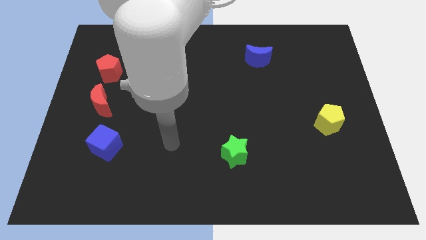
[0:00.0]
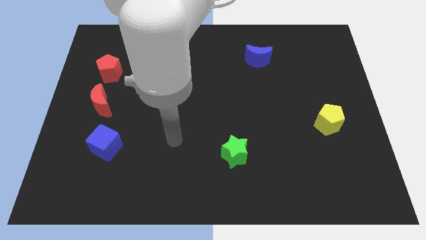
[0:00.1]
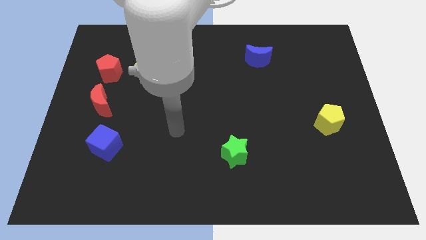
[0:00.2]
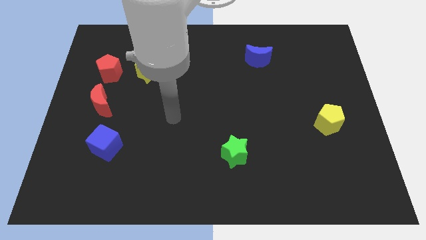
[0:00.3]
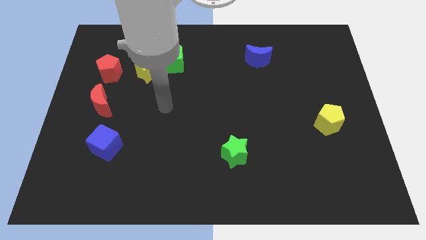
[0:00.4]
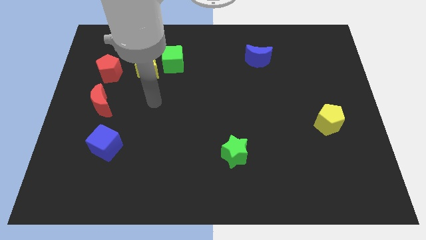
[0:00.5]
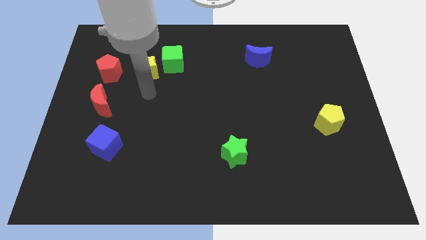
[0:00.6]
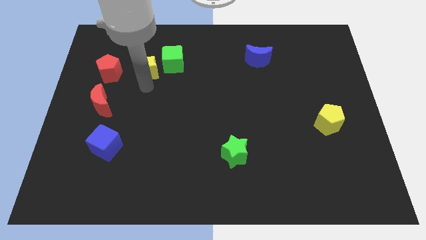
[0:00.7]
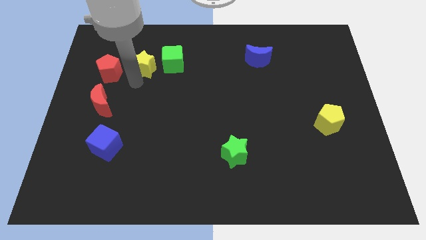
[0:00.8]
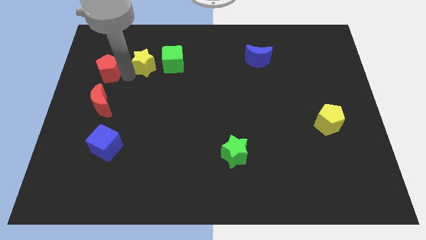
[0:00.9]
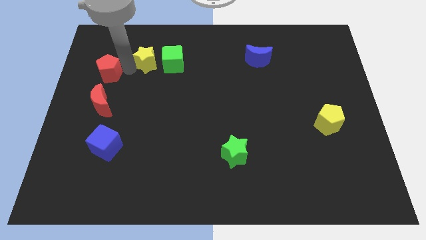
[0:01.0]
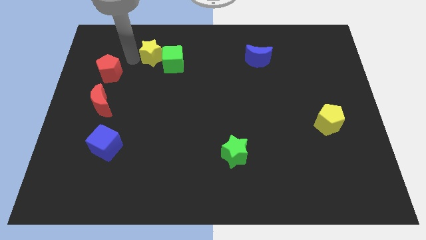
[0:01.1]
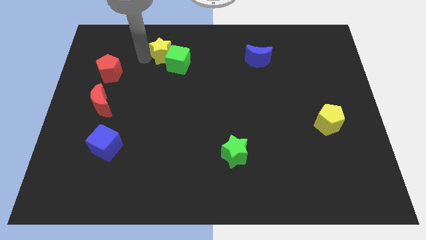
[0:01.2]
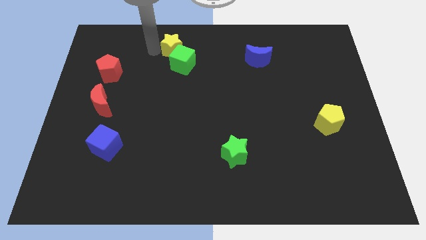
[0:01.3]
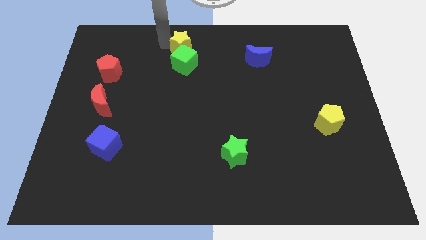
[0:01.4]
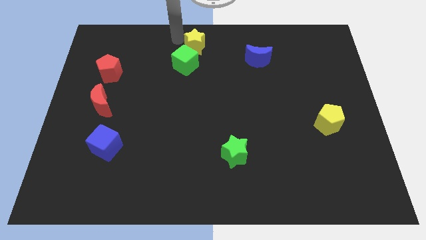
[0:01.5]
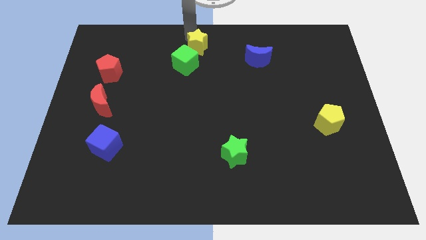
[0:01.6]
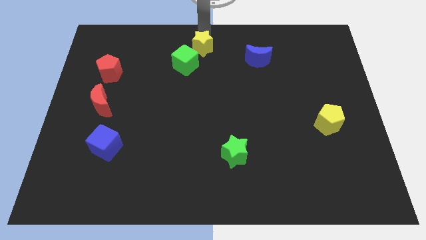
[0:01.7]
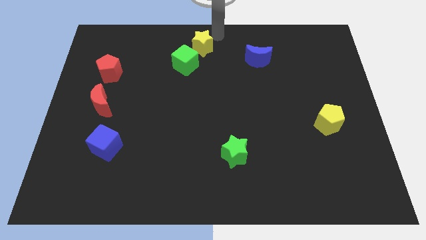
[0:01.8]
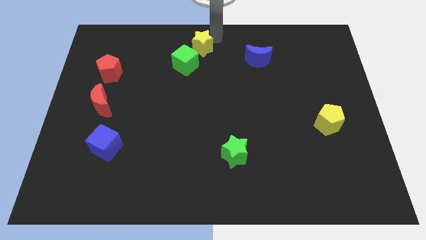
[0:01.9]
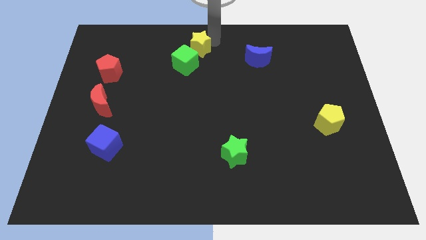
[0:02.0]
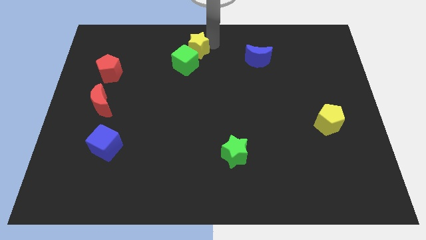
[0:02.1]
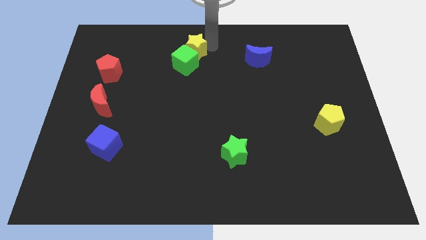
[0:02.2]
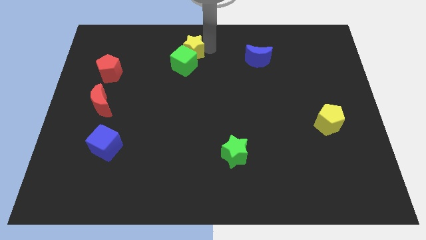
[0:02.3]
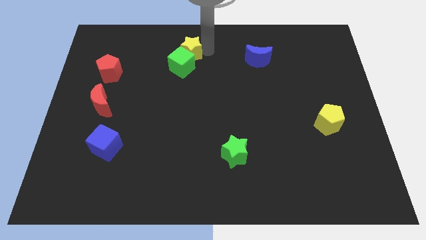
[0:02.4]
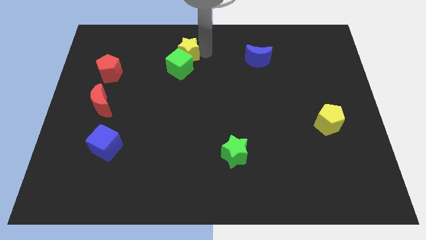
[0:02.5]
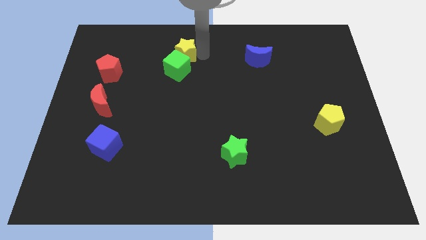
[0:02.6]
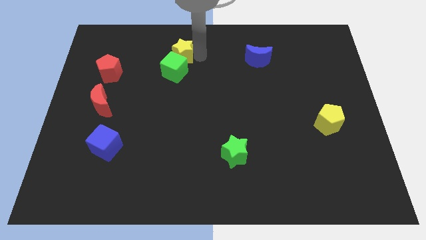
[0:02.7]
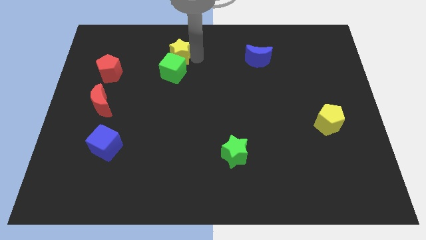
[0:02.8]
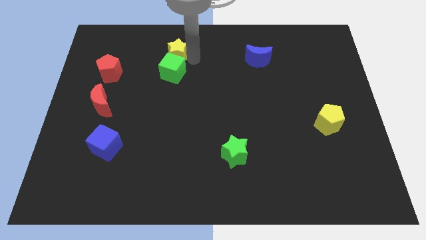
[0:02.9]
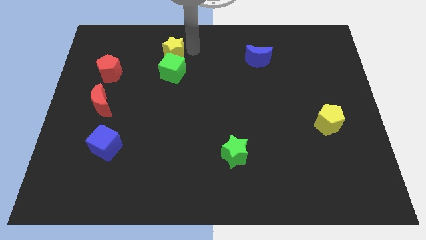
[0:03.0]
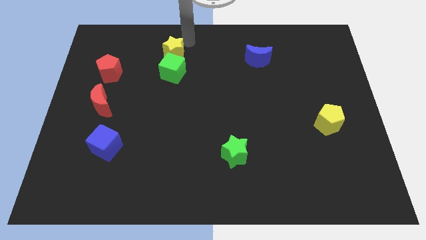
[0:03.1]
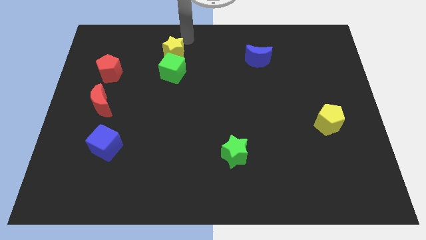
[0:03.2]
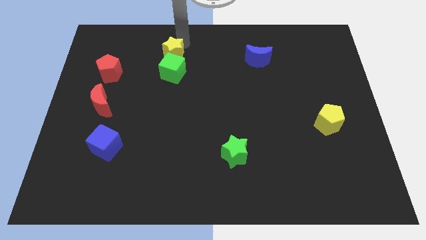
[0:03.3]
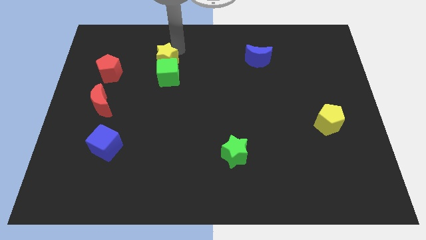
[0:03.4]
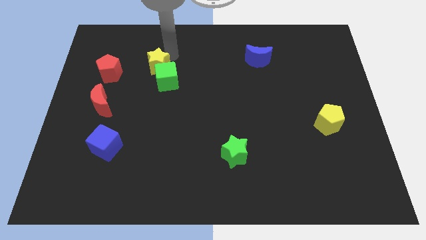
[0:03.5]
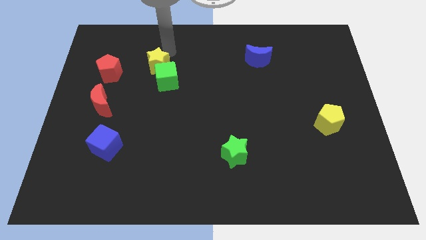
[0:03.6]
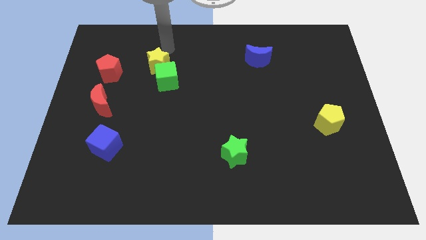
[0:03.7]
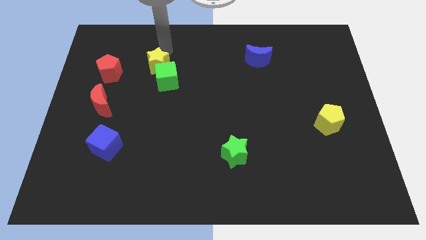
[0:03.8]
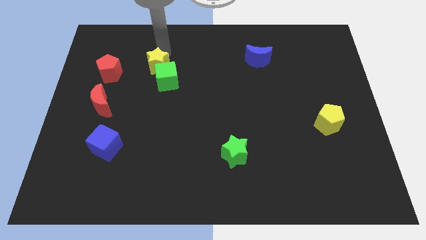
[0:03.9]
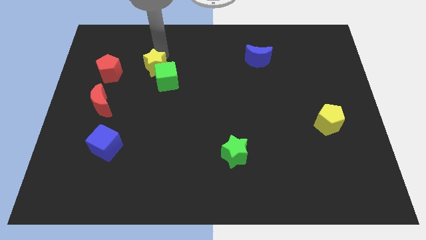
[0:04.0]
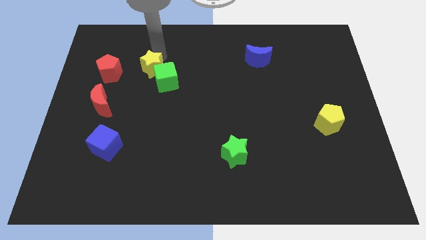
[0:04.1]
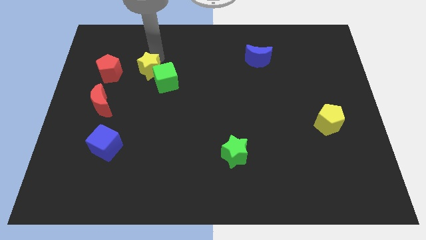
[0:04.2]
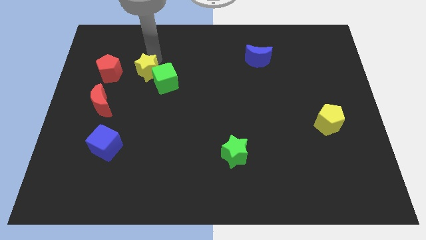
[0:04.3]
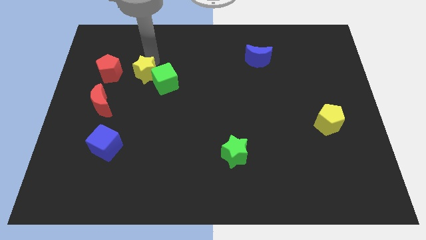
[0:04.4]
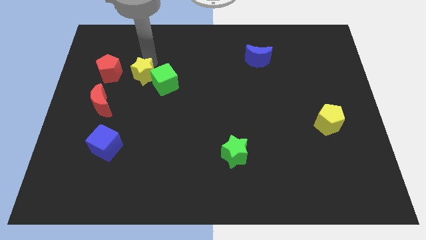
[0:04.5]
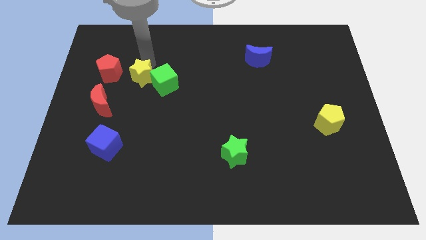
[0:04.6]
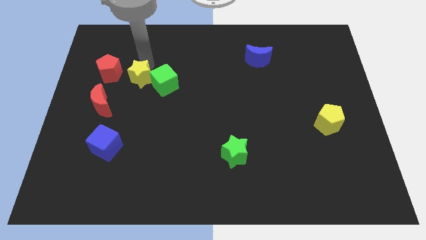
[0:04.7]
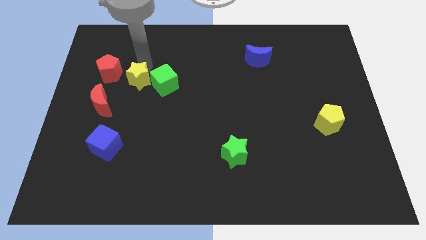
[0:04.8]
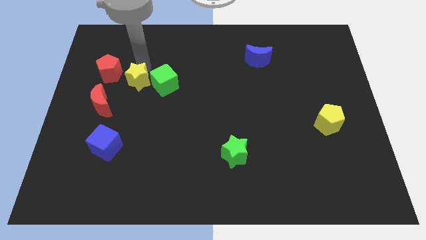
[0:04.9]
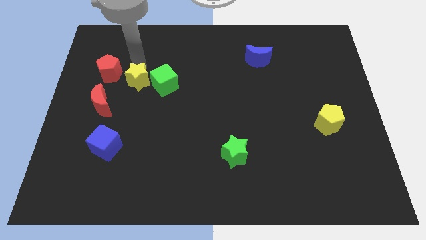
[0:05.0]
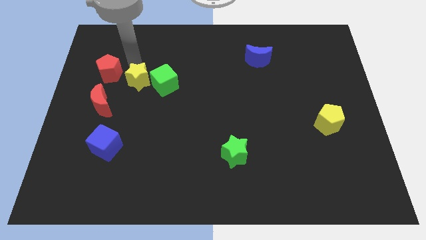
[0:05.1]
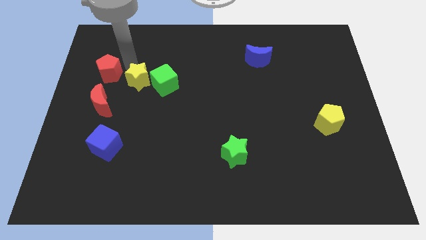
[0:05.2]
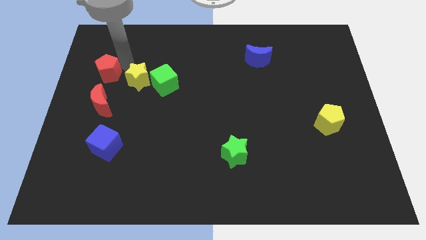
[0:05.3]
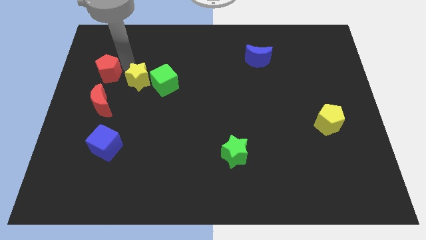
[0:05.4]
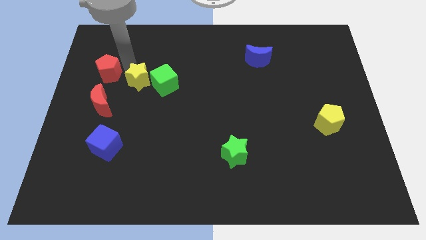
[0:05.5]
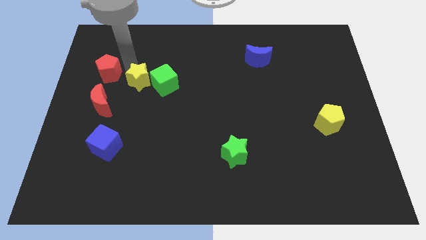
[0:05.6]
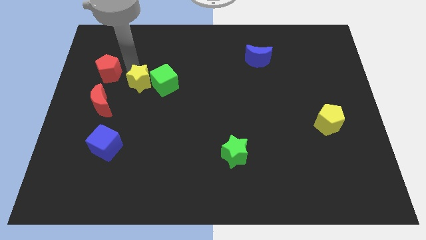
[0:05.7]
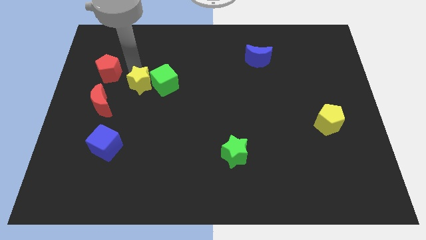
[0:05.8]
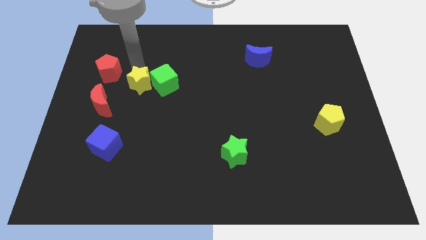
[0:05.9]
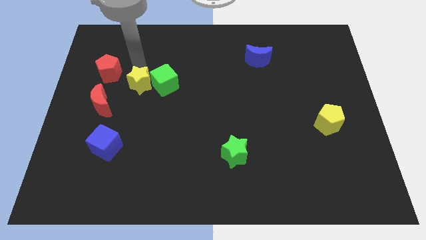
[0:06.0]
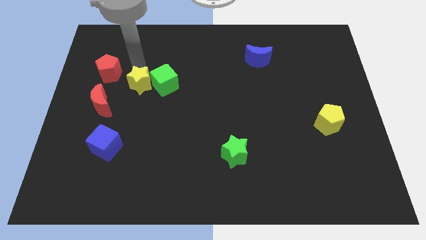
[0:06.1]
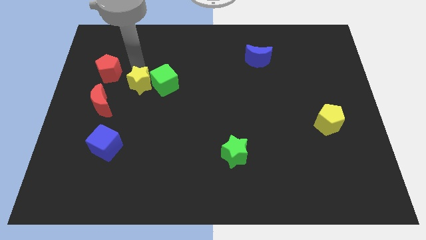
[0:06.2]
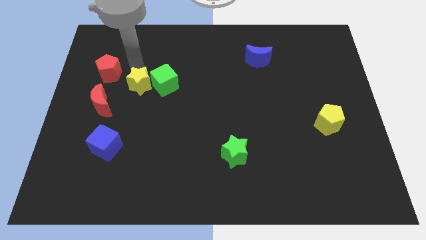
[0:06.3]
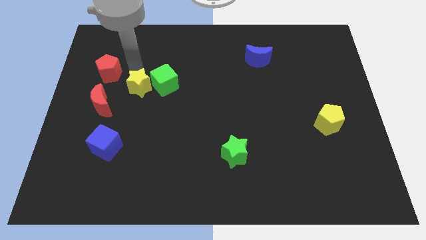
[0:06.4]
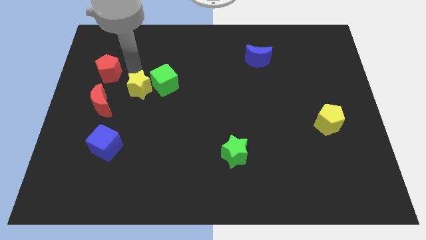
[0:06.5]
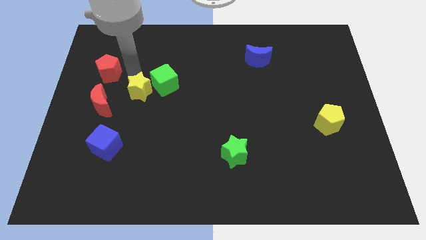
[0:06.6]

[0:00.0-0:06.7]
push the yellow star to the right of the red moon

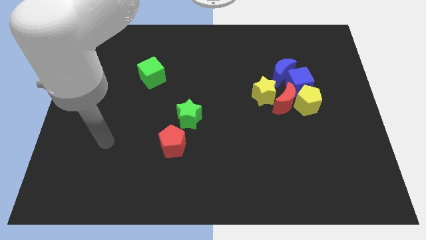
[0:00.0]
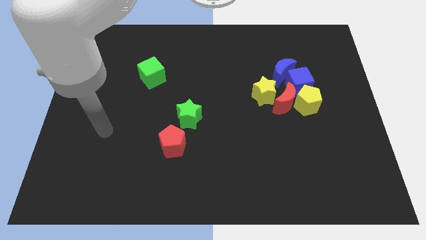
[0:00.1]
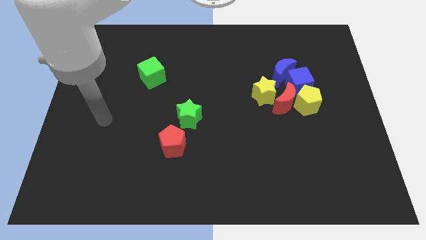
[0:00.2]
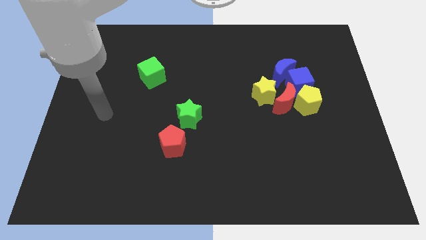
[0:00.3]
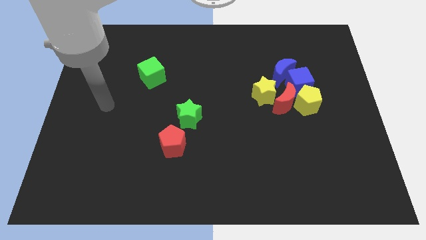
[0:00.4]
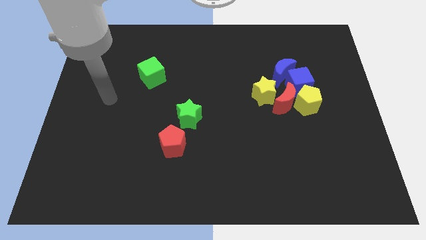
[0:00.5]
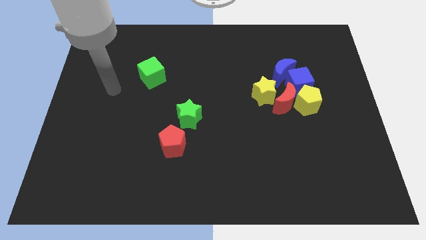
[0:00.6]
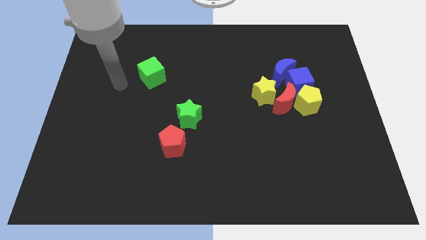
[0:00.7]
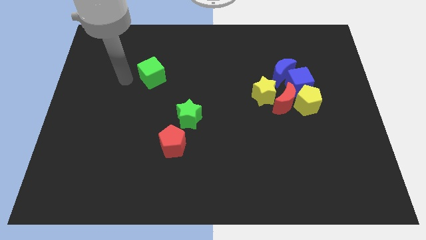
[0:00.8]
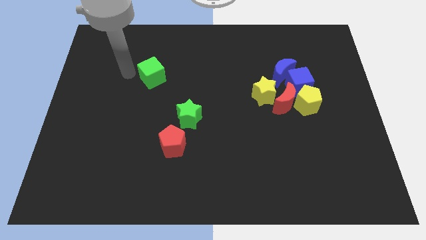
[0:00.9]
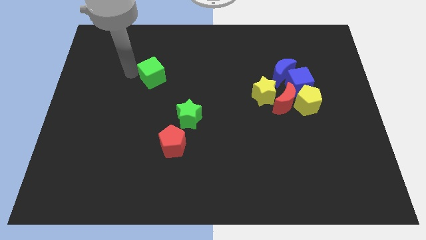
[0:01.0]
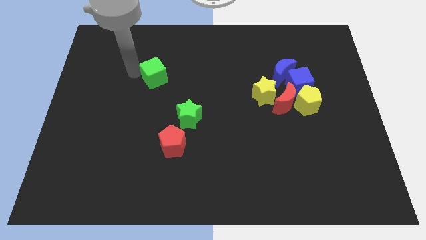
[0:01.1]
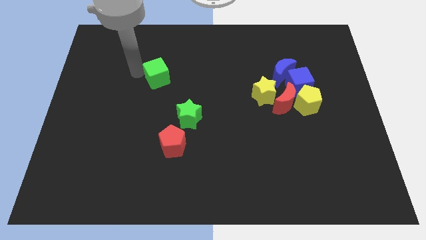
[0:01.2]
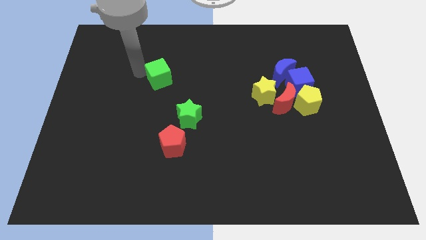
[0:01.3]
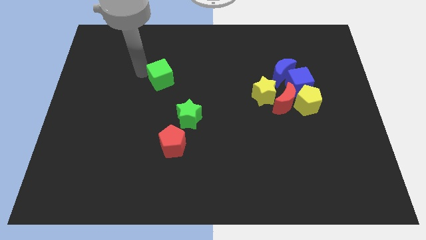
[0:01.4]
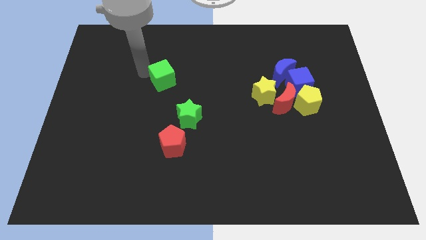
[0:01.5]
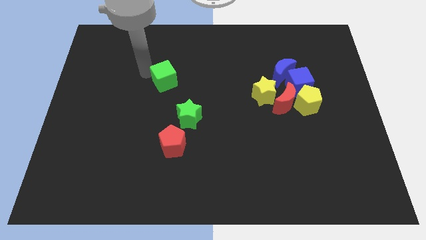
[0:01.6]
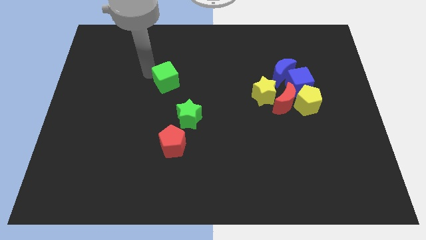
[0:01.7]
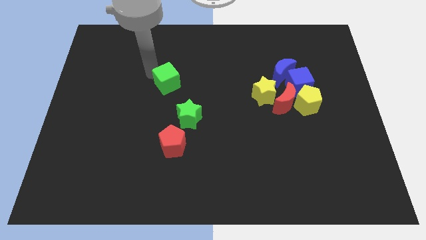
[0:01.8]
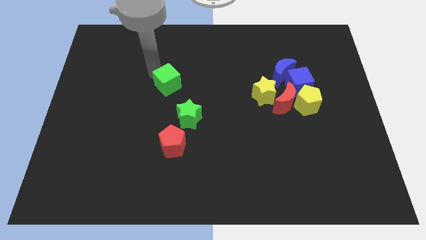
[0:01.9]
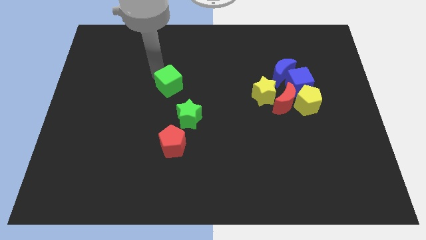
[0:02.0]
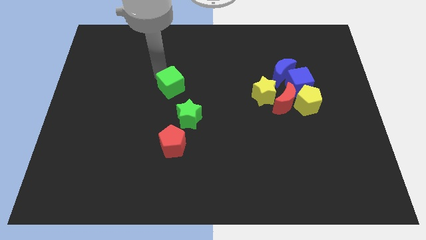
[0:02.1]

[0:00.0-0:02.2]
put the green cube above the green star
